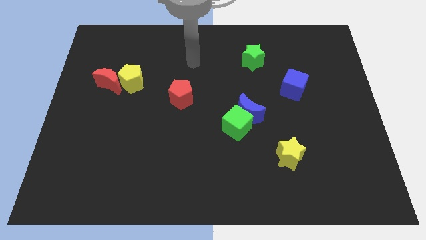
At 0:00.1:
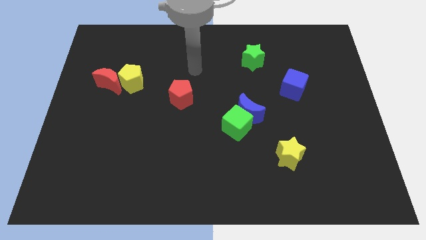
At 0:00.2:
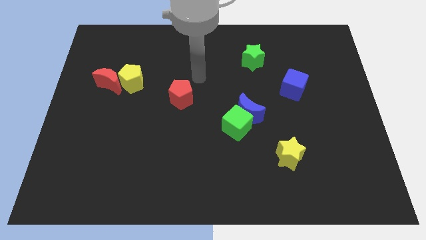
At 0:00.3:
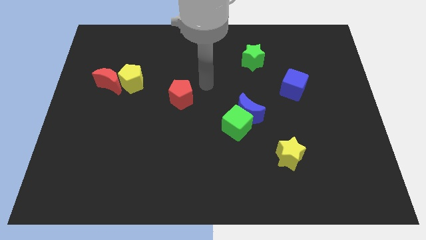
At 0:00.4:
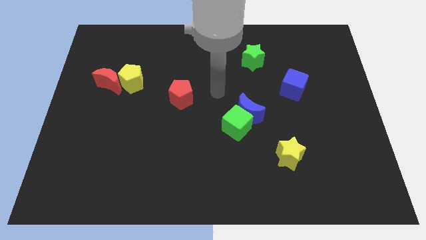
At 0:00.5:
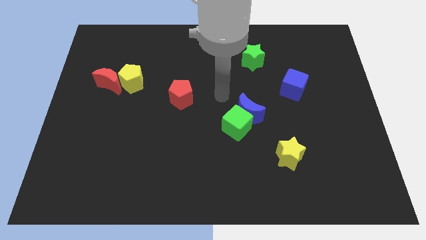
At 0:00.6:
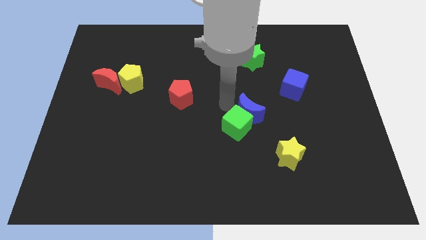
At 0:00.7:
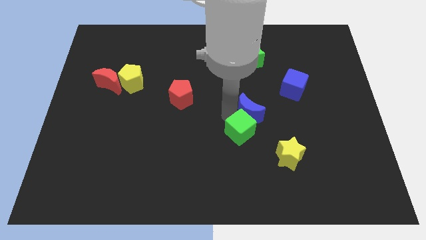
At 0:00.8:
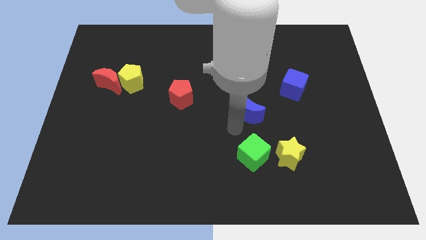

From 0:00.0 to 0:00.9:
separate the blue moon from the green cube

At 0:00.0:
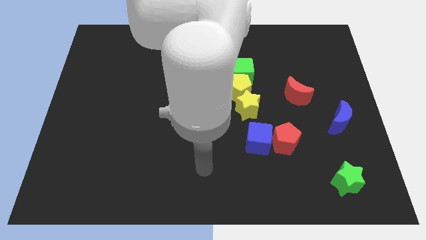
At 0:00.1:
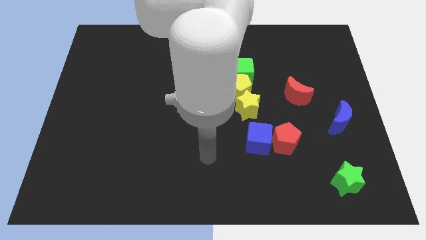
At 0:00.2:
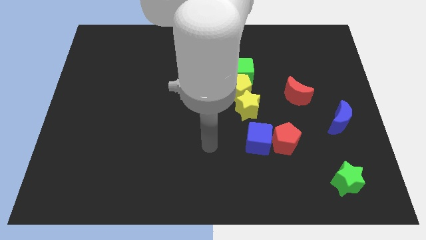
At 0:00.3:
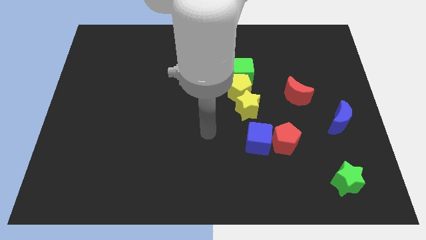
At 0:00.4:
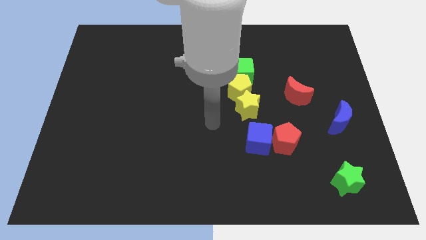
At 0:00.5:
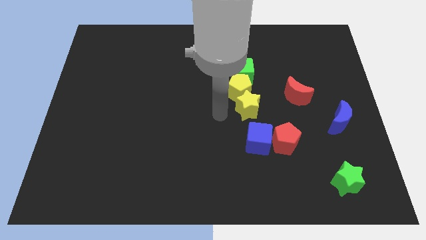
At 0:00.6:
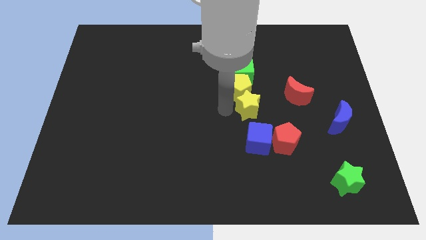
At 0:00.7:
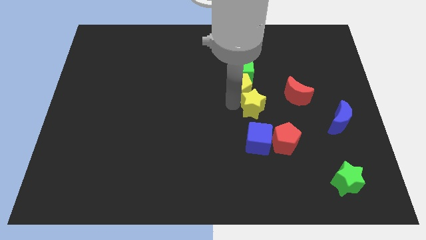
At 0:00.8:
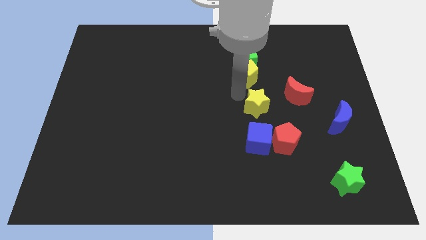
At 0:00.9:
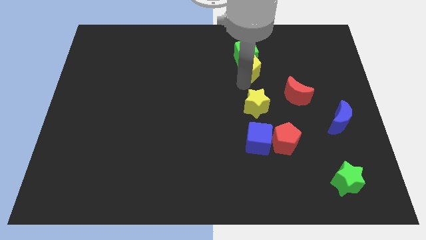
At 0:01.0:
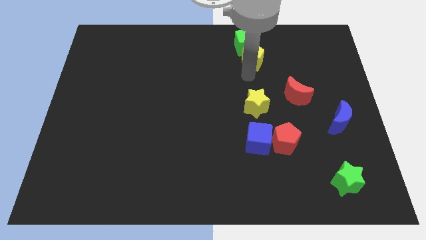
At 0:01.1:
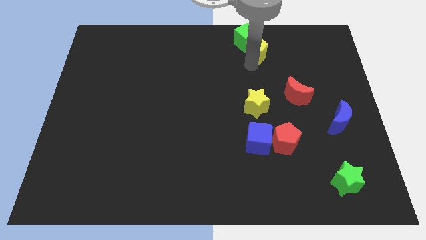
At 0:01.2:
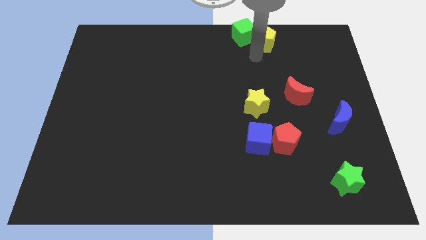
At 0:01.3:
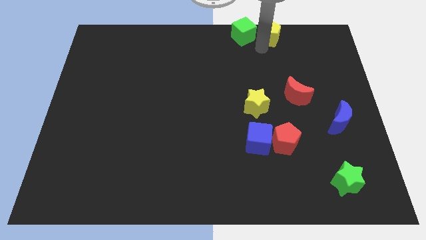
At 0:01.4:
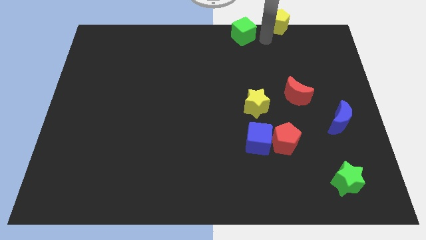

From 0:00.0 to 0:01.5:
pull the green cube apart from the yellow pentagon

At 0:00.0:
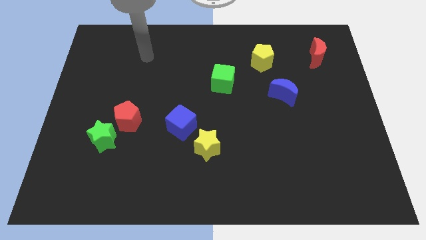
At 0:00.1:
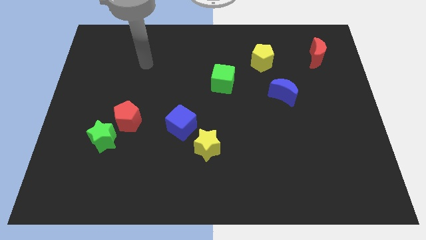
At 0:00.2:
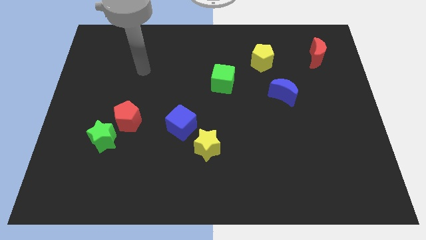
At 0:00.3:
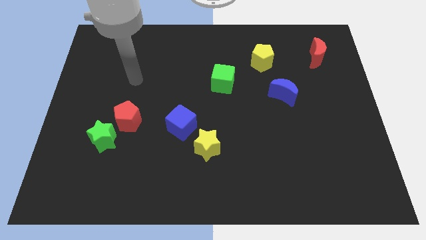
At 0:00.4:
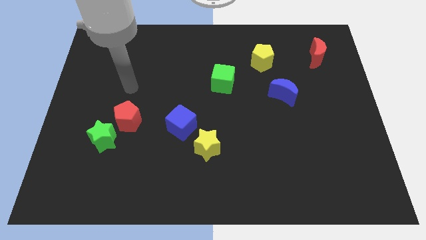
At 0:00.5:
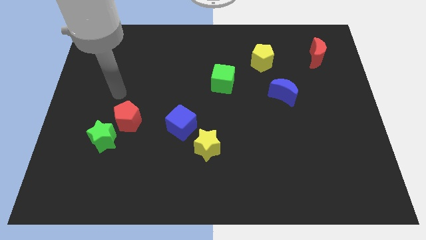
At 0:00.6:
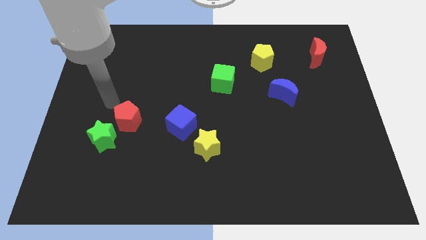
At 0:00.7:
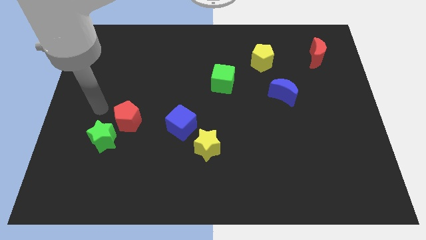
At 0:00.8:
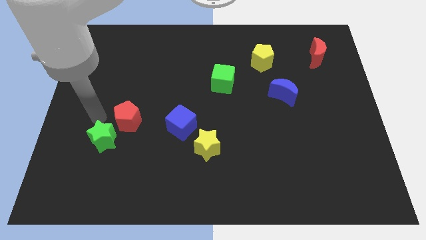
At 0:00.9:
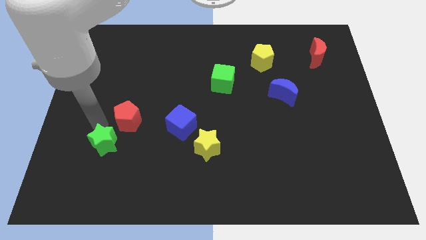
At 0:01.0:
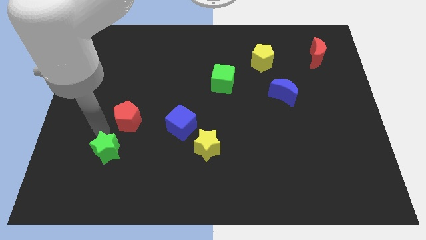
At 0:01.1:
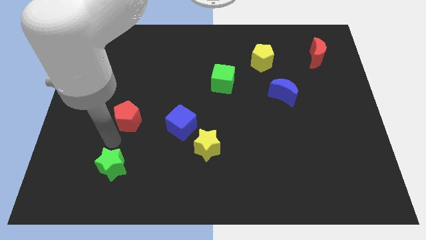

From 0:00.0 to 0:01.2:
move the red pentagon away from the green star

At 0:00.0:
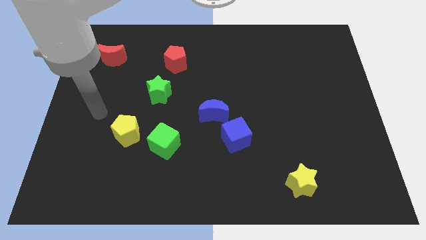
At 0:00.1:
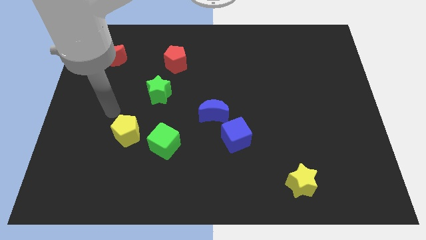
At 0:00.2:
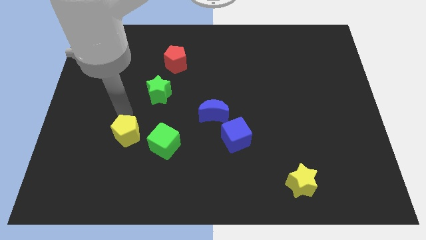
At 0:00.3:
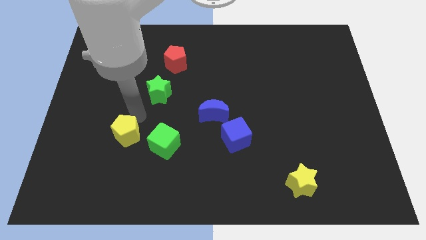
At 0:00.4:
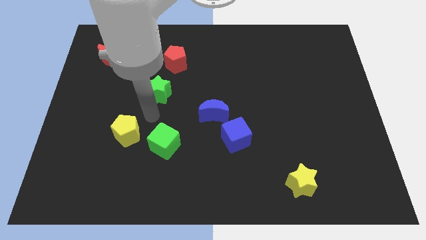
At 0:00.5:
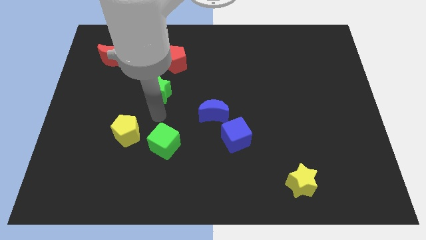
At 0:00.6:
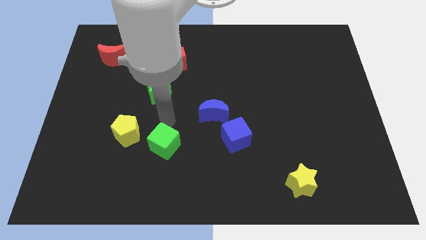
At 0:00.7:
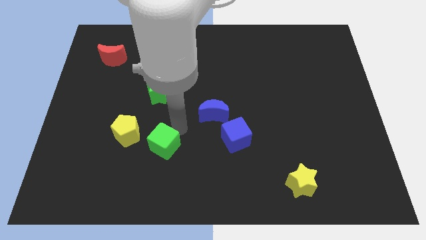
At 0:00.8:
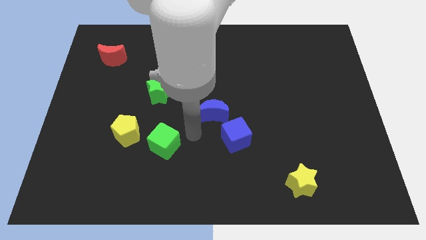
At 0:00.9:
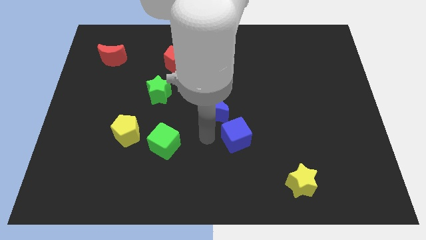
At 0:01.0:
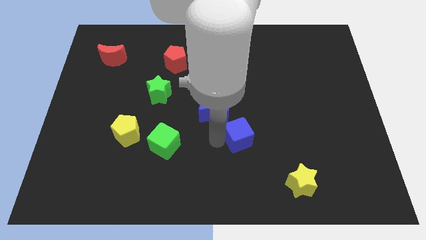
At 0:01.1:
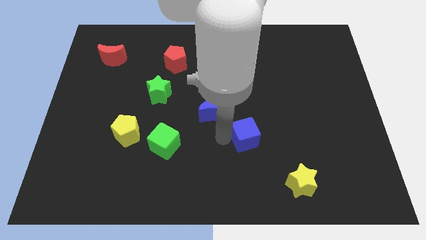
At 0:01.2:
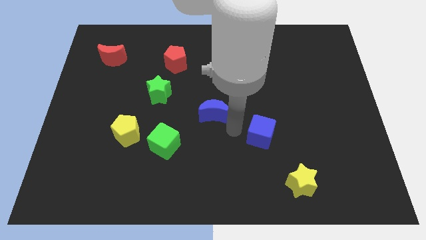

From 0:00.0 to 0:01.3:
separate the blue moon from the blue cube

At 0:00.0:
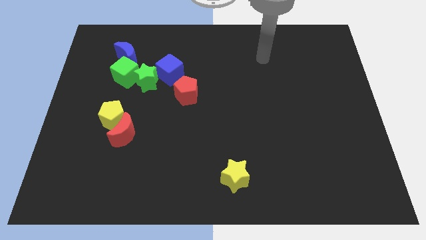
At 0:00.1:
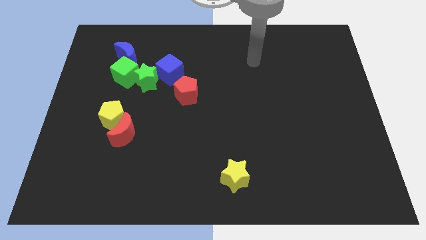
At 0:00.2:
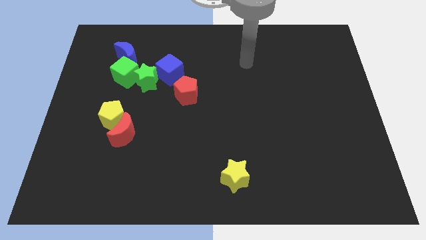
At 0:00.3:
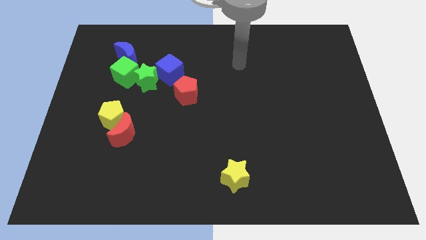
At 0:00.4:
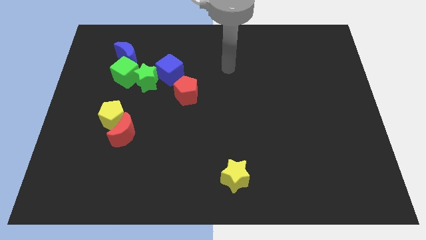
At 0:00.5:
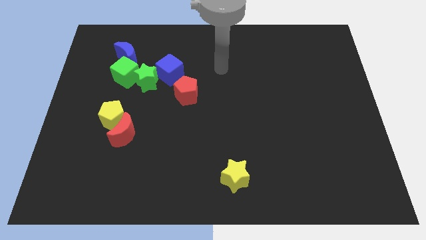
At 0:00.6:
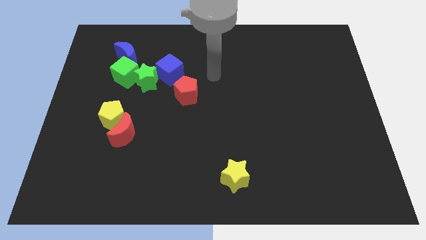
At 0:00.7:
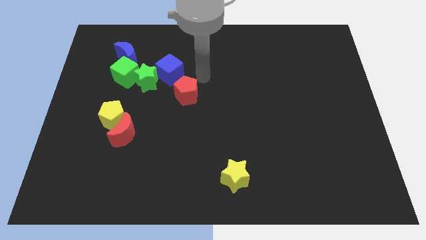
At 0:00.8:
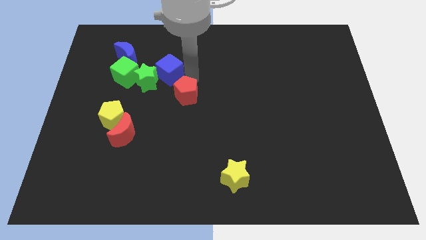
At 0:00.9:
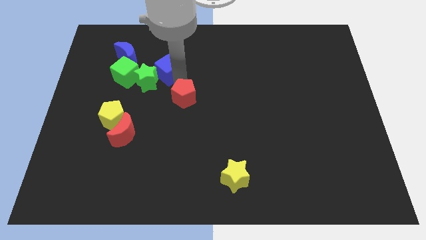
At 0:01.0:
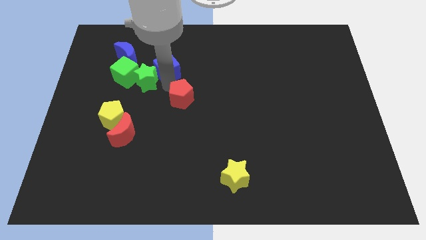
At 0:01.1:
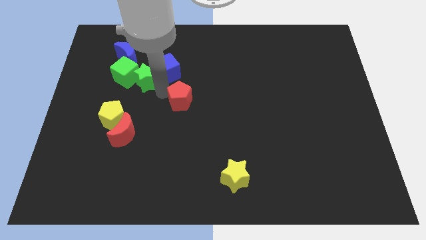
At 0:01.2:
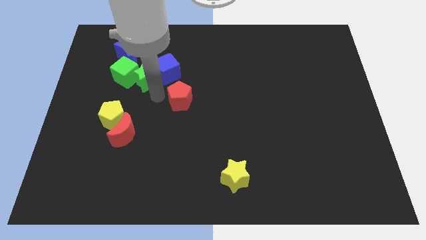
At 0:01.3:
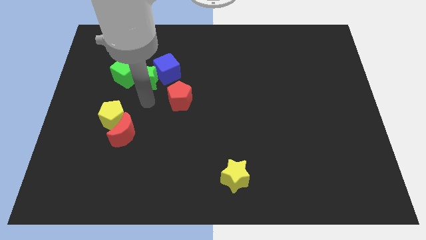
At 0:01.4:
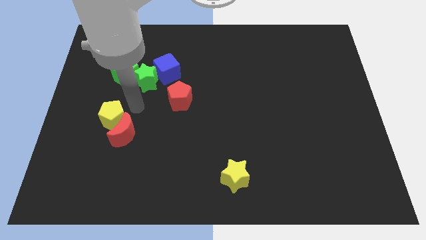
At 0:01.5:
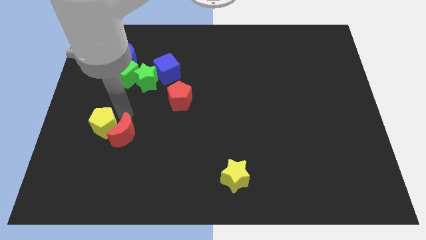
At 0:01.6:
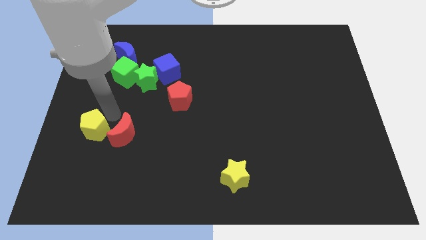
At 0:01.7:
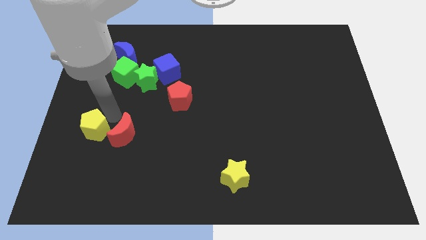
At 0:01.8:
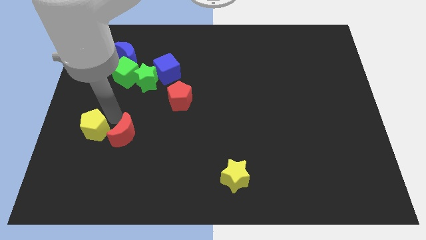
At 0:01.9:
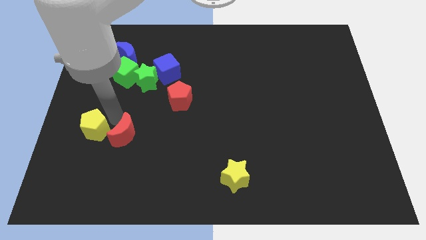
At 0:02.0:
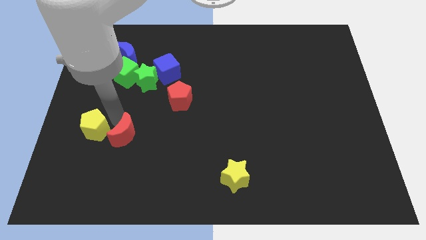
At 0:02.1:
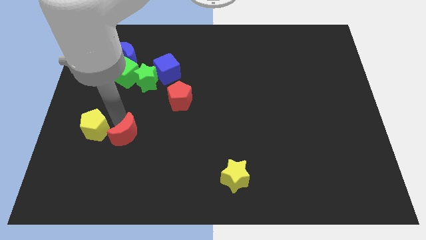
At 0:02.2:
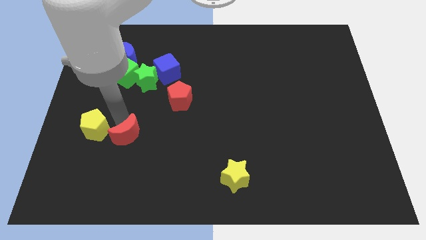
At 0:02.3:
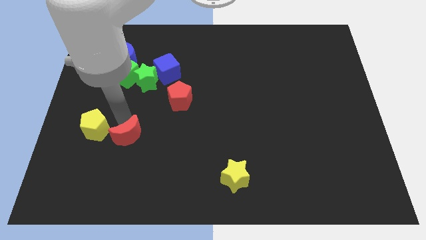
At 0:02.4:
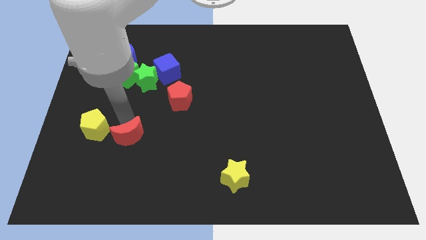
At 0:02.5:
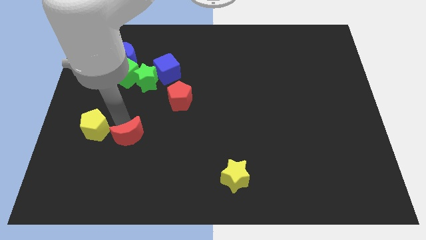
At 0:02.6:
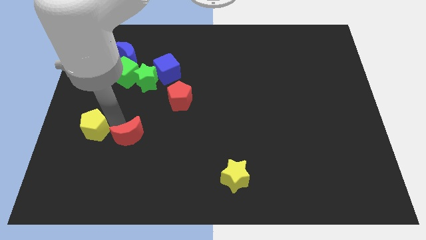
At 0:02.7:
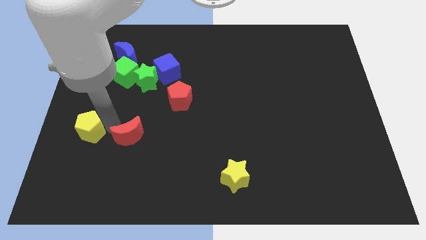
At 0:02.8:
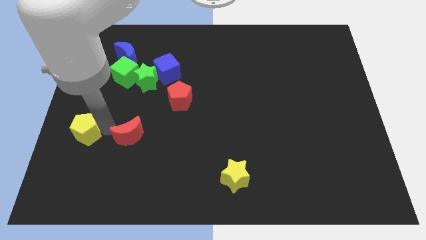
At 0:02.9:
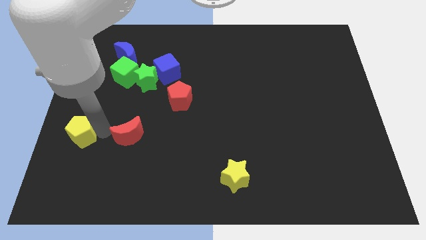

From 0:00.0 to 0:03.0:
move the red moon away from the yellow pentagon

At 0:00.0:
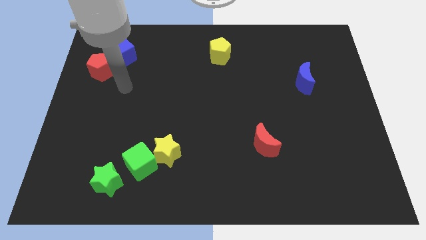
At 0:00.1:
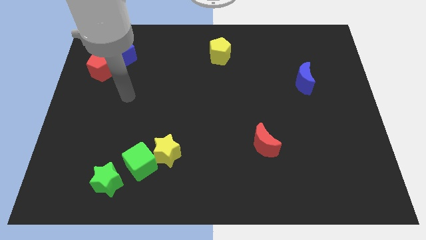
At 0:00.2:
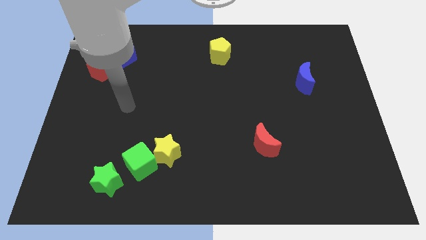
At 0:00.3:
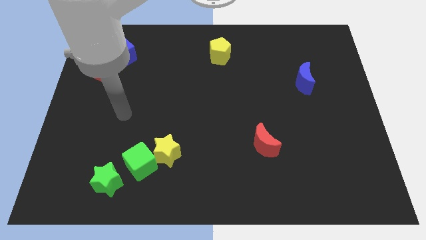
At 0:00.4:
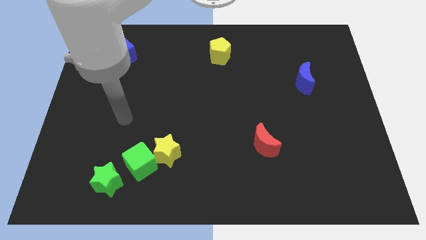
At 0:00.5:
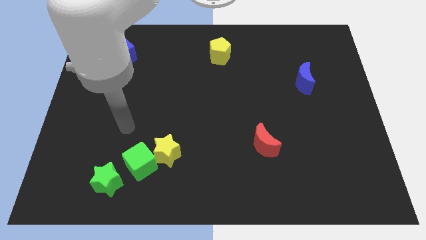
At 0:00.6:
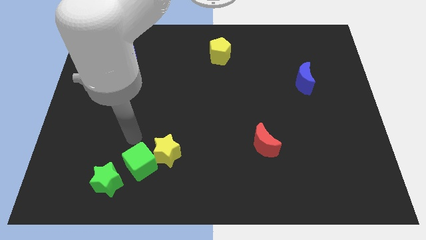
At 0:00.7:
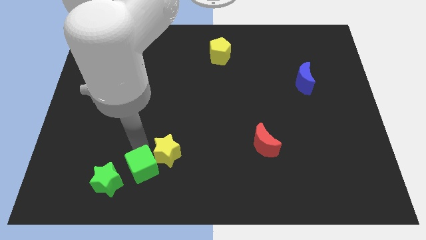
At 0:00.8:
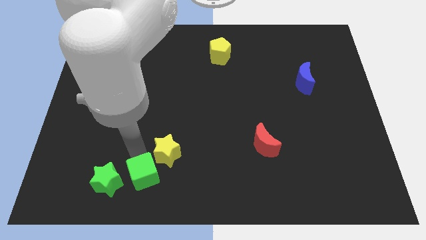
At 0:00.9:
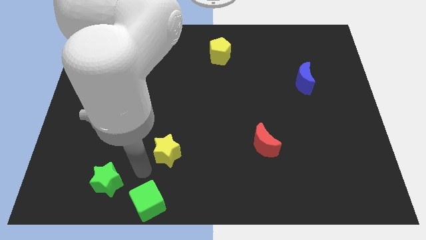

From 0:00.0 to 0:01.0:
pull the yellow star apart from the green cube

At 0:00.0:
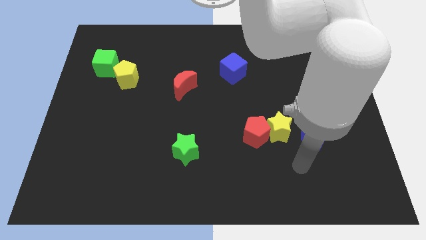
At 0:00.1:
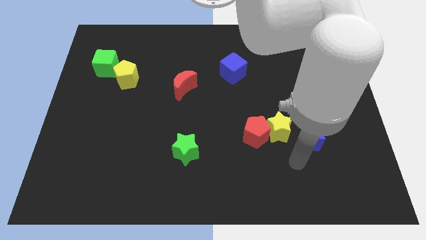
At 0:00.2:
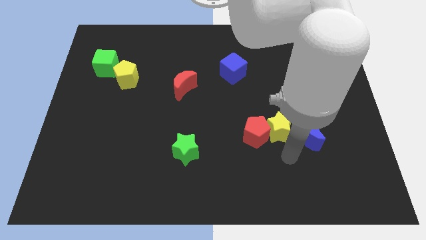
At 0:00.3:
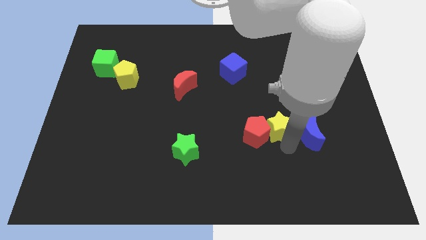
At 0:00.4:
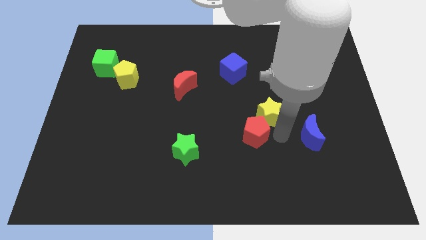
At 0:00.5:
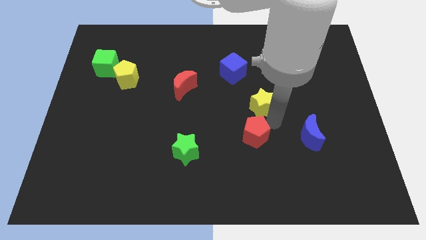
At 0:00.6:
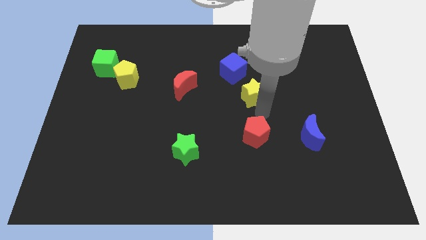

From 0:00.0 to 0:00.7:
move the red pentagon away from the yellow star
